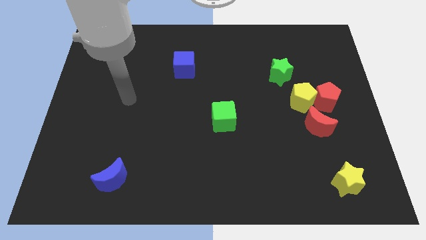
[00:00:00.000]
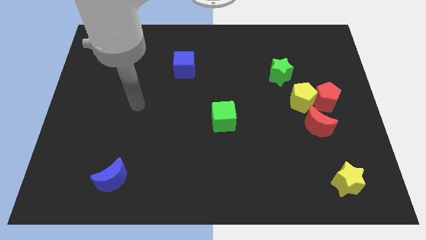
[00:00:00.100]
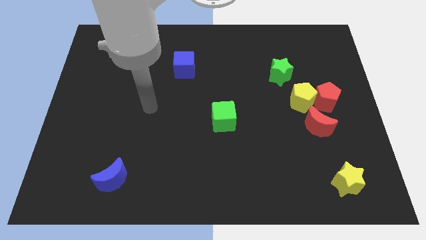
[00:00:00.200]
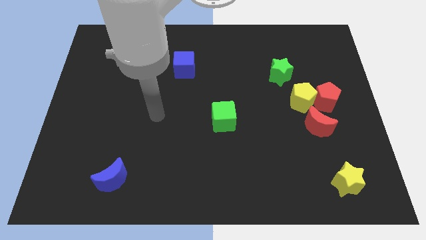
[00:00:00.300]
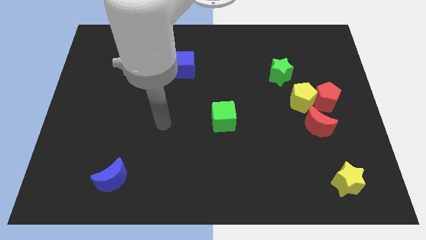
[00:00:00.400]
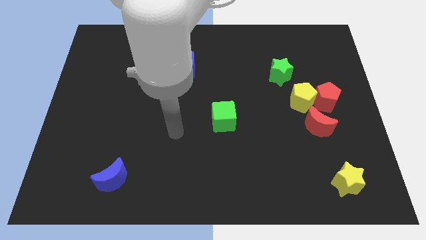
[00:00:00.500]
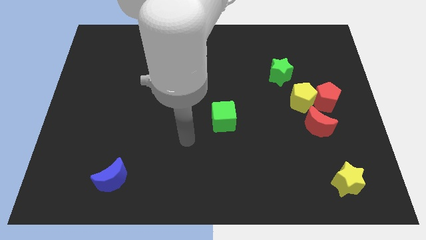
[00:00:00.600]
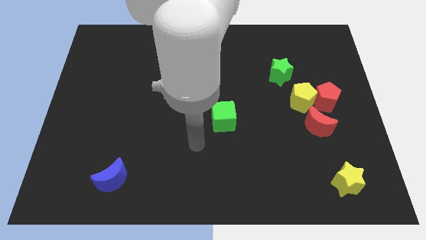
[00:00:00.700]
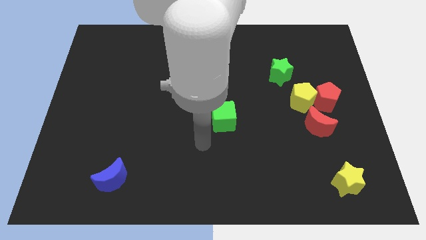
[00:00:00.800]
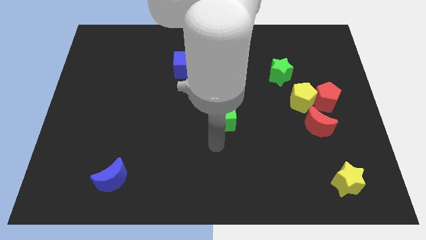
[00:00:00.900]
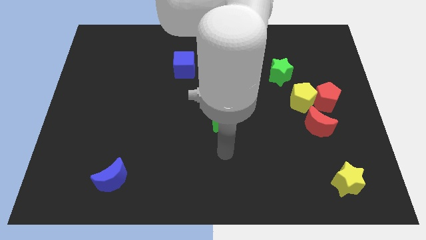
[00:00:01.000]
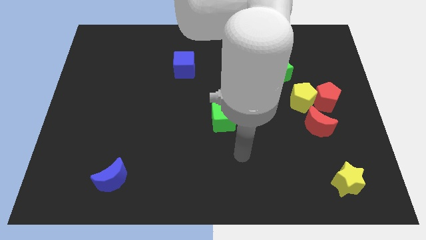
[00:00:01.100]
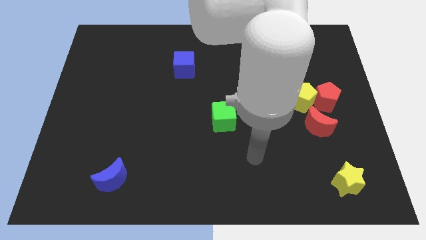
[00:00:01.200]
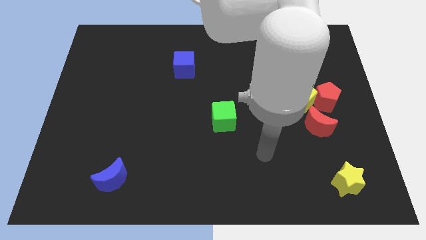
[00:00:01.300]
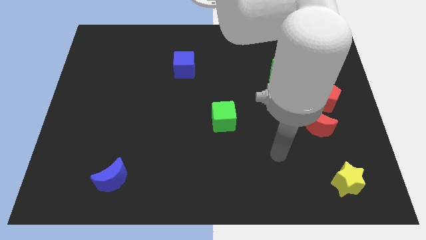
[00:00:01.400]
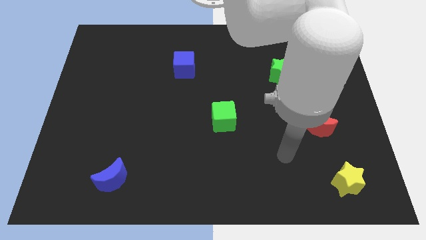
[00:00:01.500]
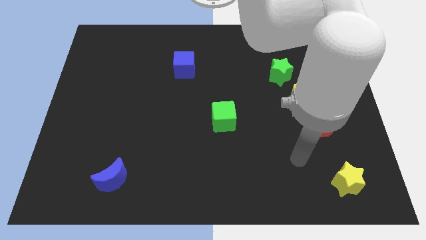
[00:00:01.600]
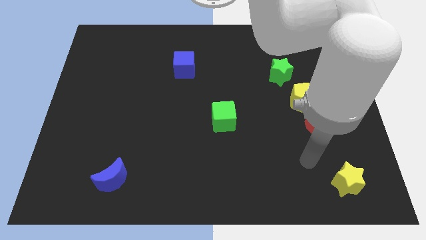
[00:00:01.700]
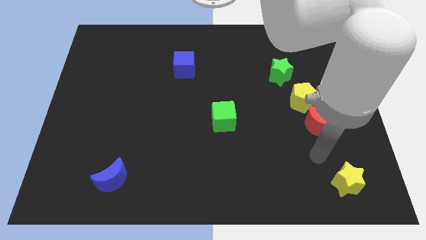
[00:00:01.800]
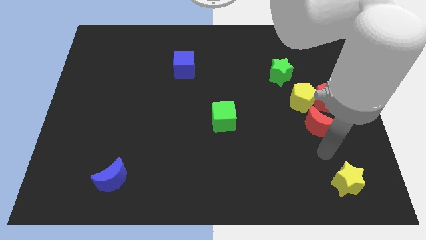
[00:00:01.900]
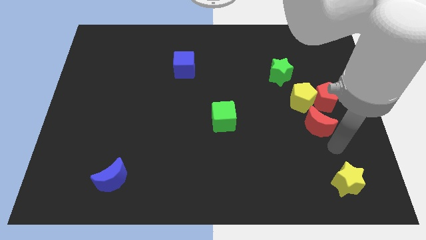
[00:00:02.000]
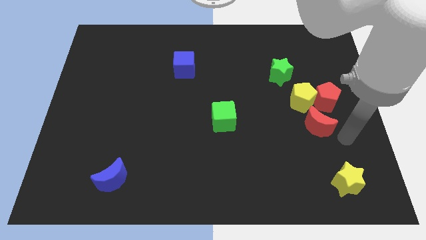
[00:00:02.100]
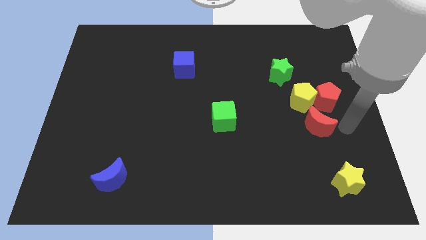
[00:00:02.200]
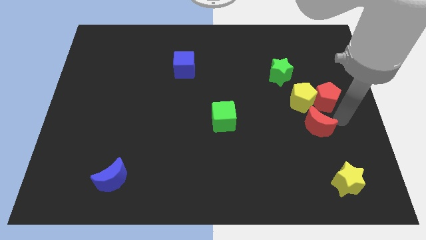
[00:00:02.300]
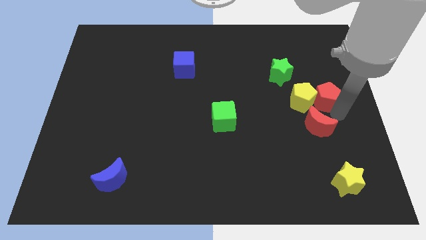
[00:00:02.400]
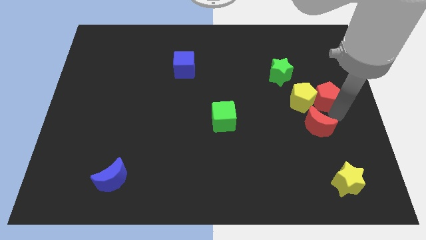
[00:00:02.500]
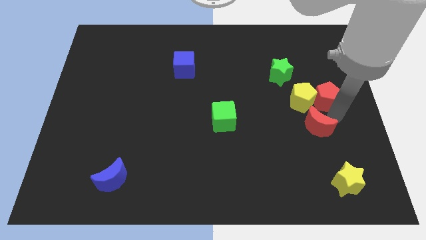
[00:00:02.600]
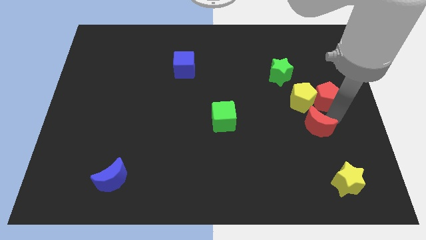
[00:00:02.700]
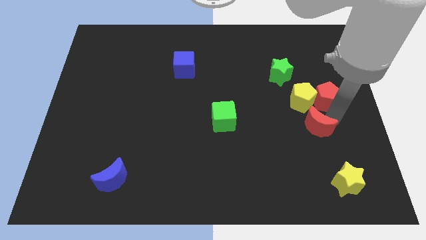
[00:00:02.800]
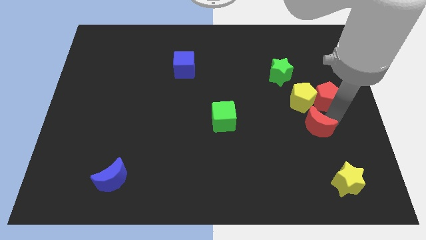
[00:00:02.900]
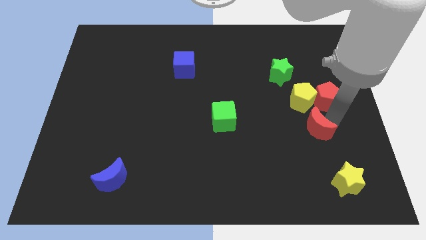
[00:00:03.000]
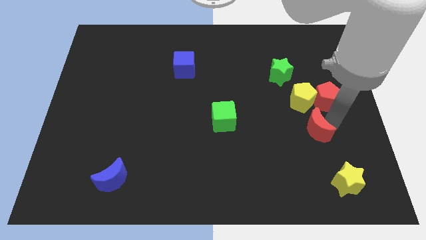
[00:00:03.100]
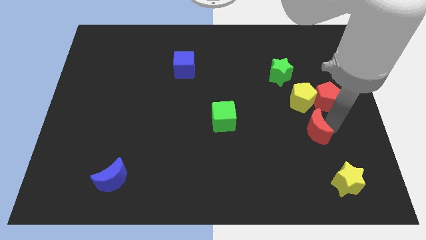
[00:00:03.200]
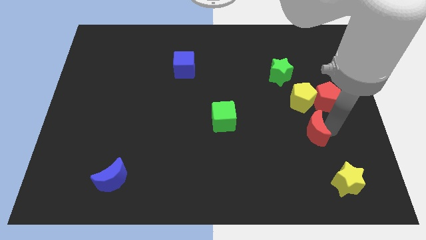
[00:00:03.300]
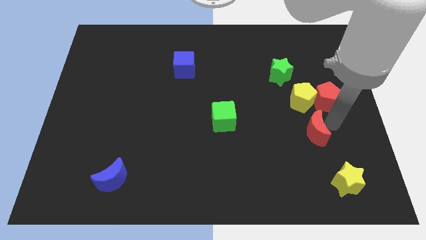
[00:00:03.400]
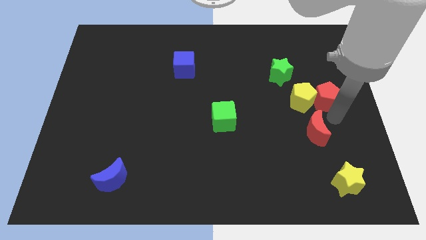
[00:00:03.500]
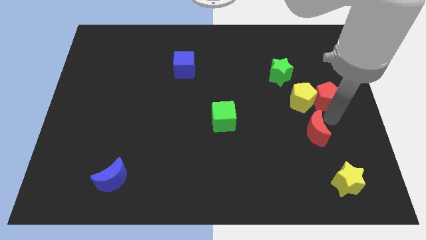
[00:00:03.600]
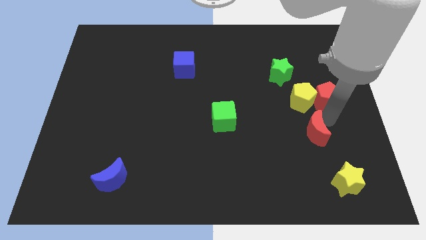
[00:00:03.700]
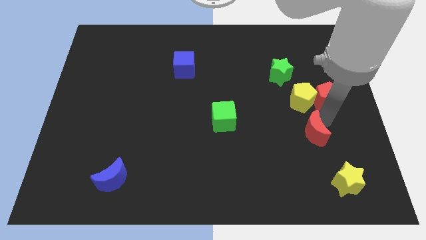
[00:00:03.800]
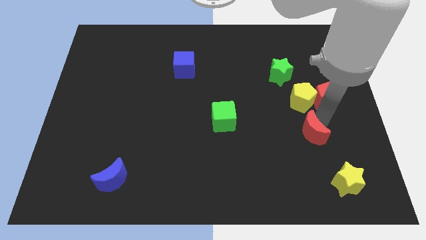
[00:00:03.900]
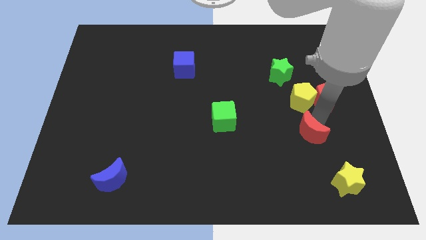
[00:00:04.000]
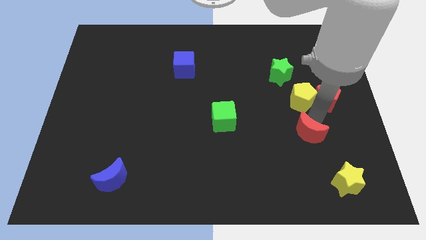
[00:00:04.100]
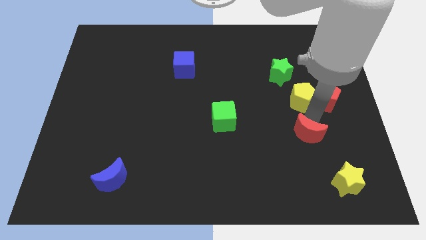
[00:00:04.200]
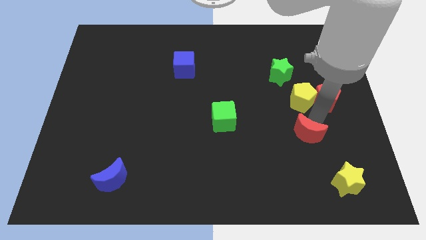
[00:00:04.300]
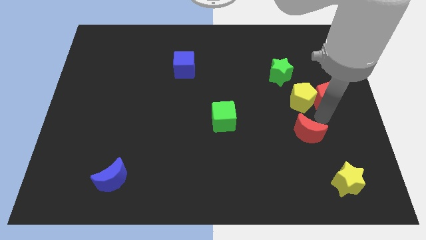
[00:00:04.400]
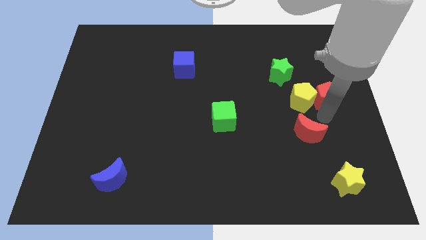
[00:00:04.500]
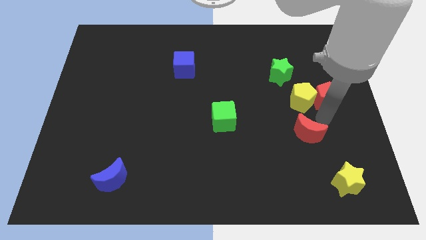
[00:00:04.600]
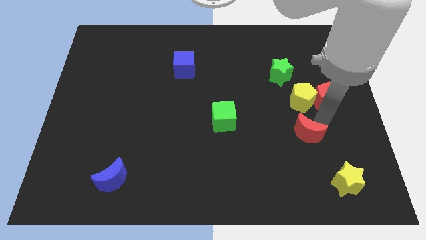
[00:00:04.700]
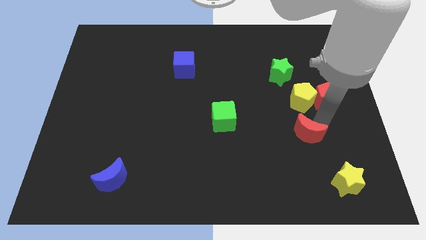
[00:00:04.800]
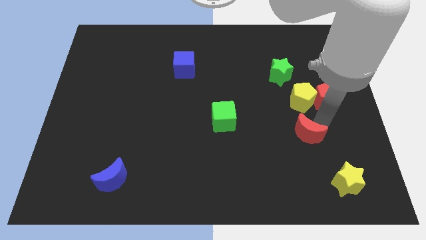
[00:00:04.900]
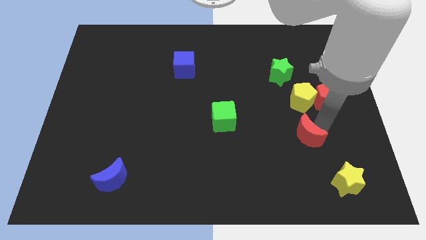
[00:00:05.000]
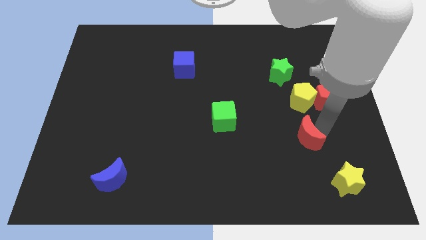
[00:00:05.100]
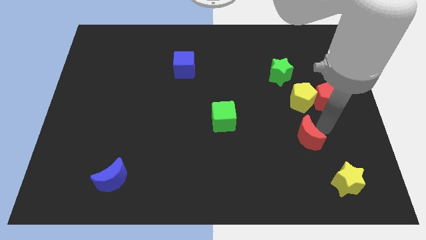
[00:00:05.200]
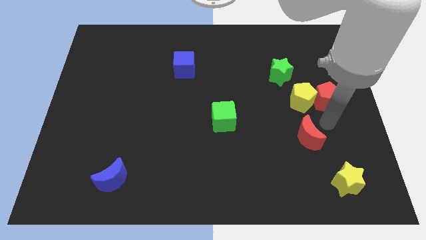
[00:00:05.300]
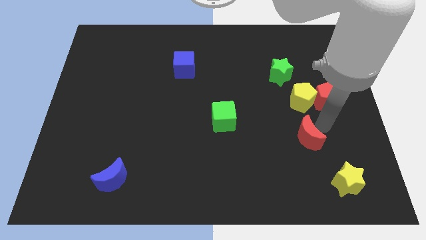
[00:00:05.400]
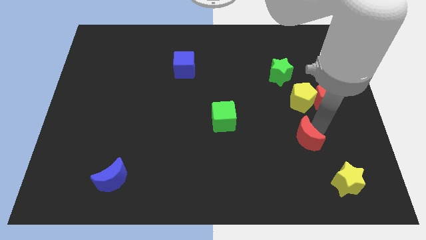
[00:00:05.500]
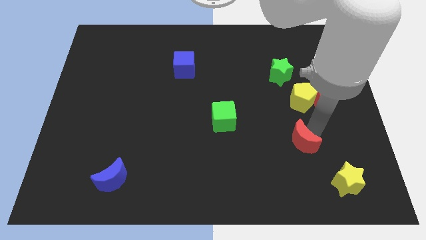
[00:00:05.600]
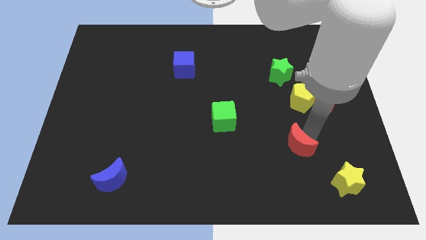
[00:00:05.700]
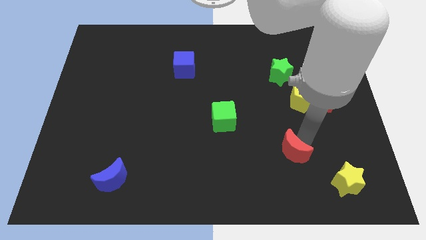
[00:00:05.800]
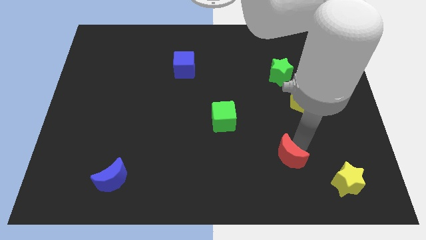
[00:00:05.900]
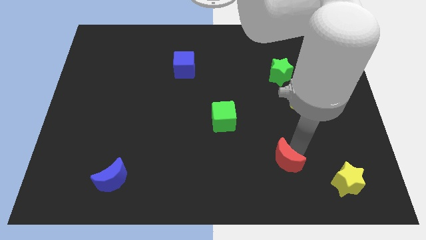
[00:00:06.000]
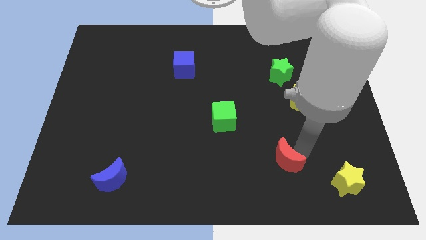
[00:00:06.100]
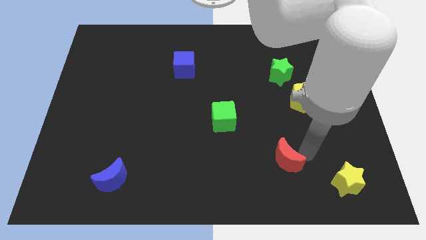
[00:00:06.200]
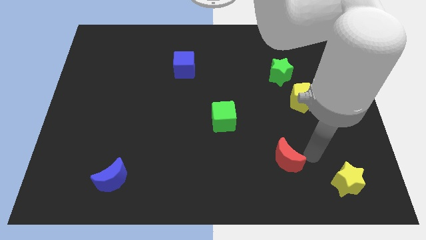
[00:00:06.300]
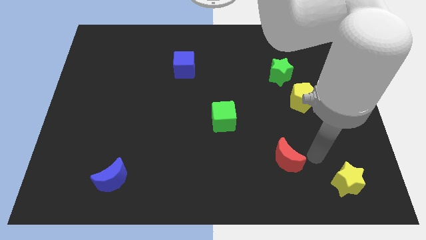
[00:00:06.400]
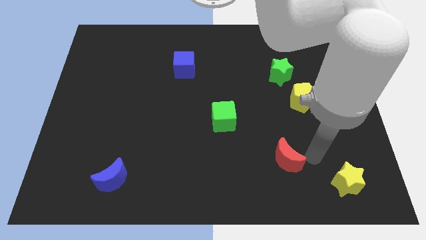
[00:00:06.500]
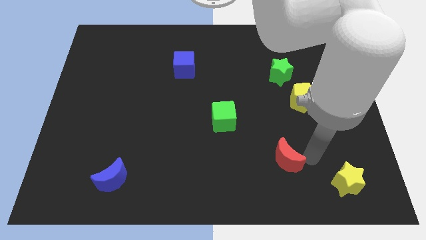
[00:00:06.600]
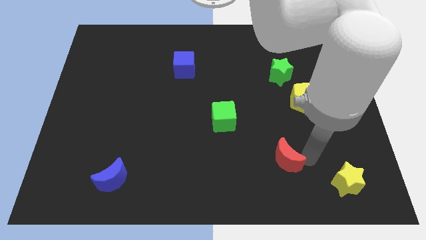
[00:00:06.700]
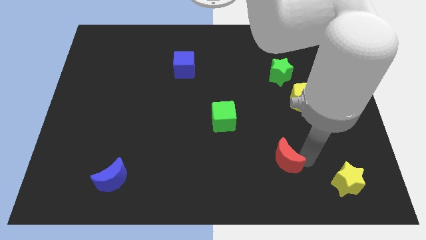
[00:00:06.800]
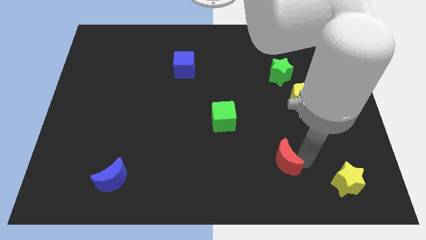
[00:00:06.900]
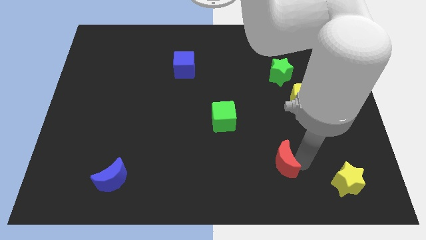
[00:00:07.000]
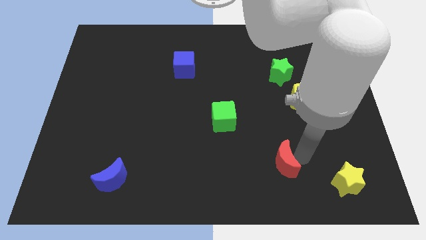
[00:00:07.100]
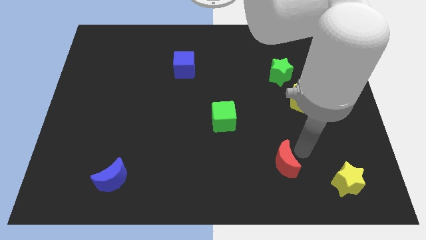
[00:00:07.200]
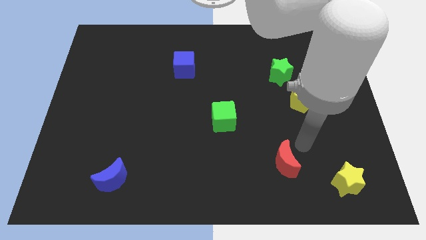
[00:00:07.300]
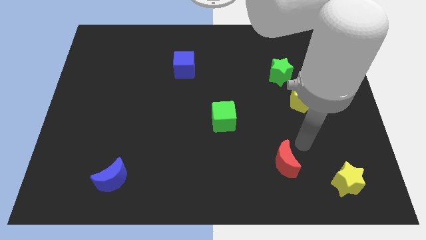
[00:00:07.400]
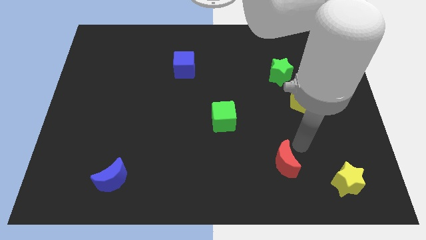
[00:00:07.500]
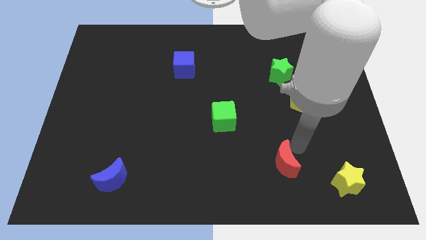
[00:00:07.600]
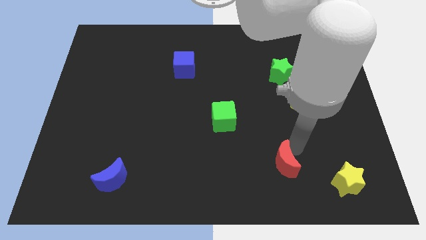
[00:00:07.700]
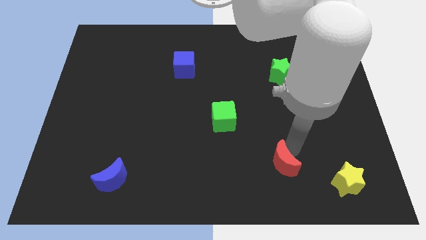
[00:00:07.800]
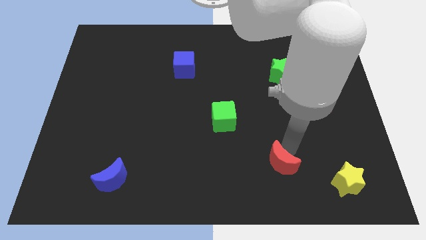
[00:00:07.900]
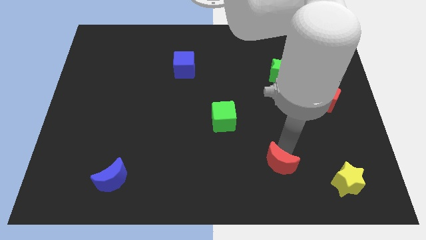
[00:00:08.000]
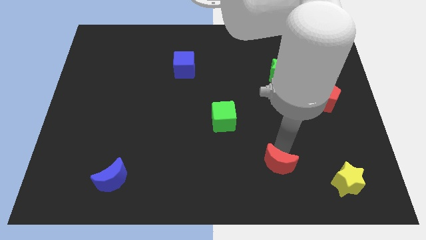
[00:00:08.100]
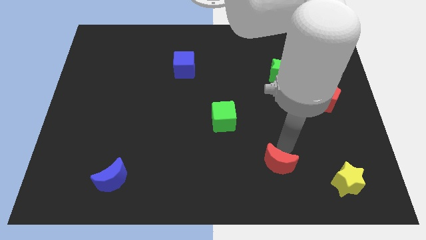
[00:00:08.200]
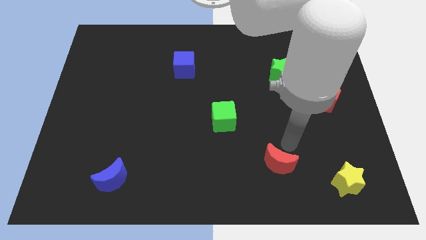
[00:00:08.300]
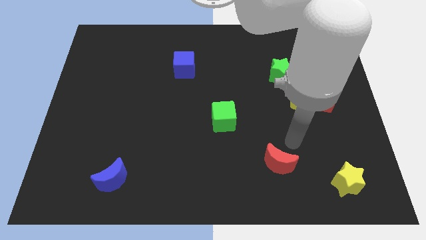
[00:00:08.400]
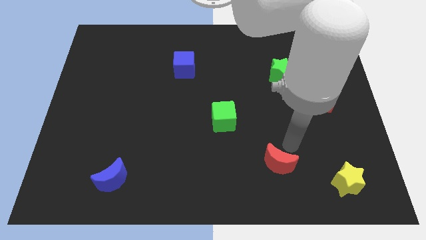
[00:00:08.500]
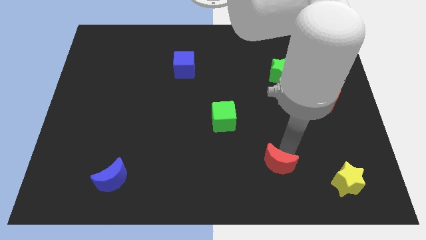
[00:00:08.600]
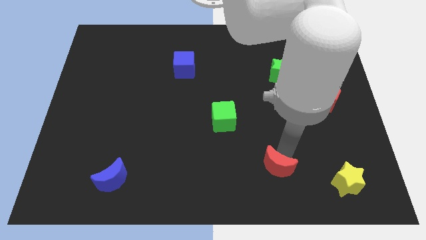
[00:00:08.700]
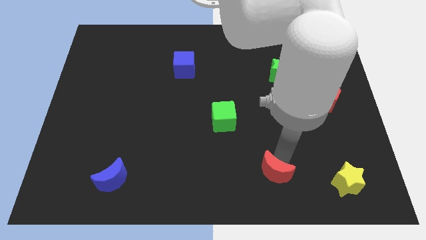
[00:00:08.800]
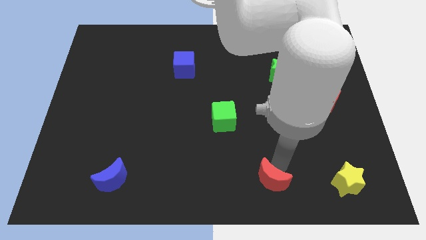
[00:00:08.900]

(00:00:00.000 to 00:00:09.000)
put the red moon to the bottom side
